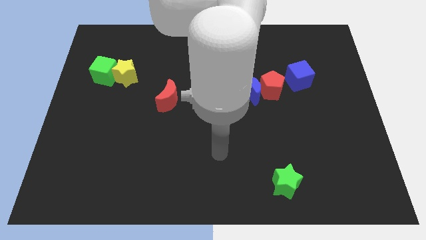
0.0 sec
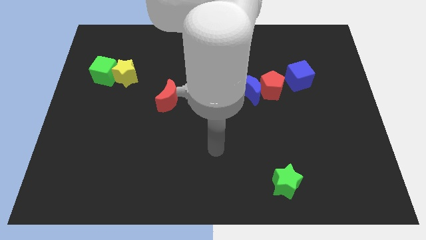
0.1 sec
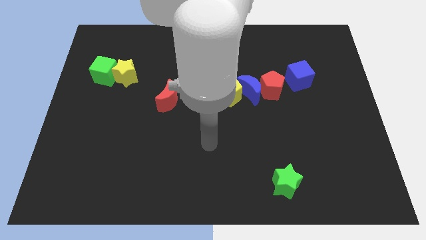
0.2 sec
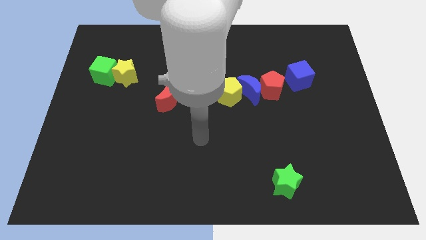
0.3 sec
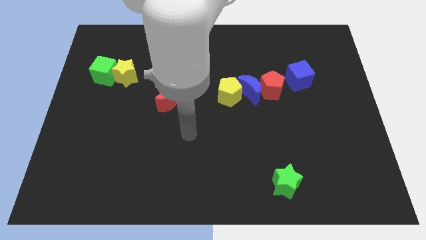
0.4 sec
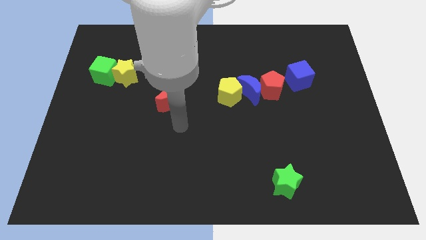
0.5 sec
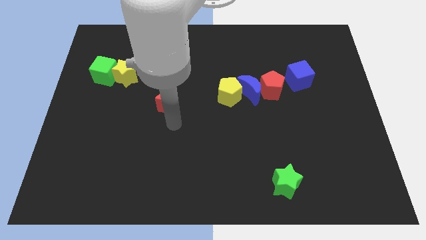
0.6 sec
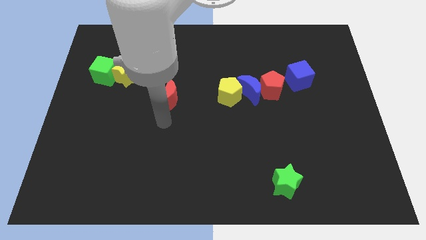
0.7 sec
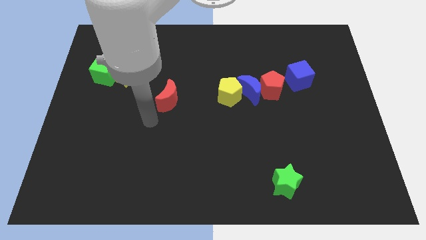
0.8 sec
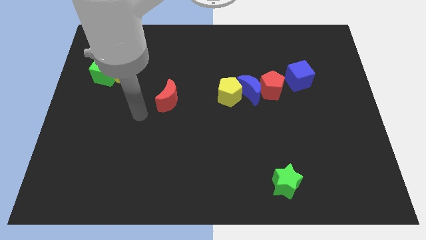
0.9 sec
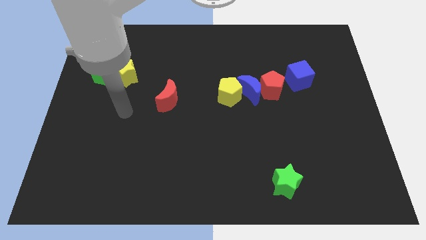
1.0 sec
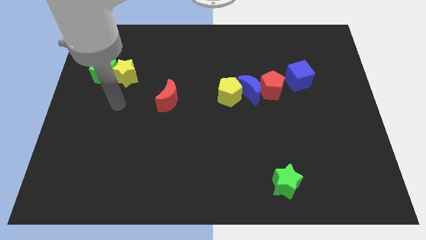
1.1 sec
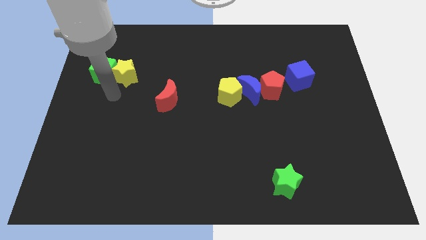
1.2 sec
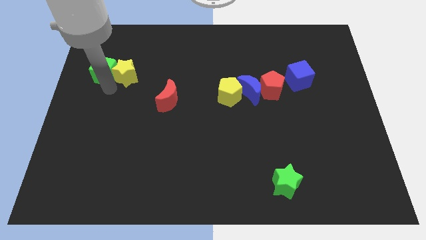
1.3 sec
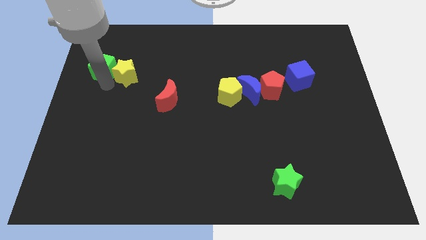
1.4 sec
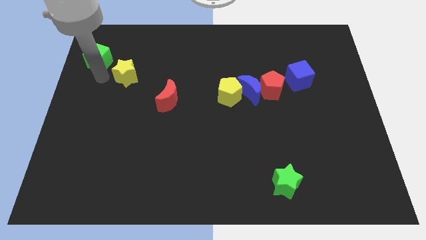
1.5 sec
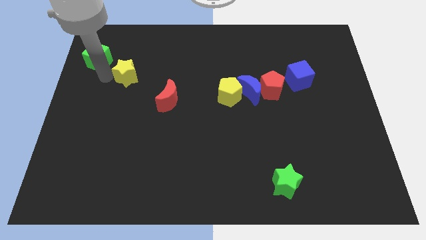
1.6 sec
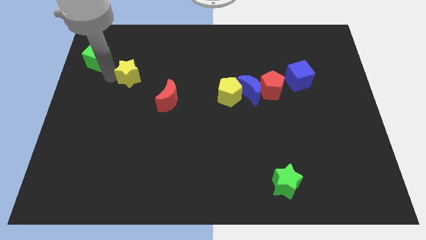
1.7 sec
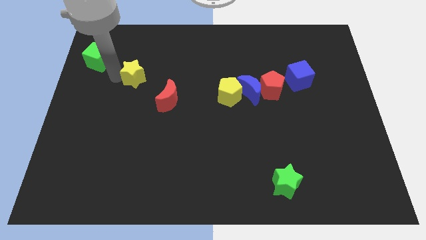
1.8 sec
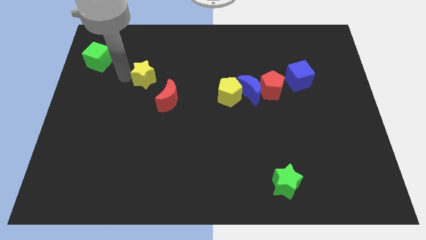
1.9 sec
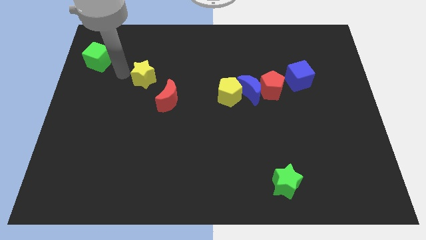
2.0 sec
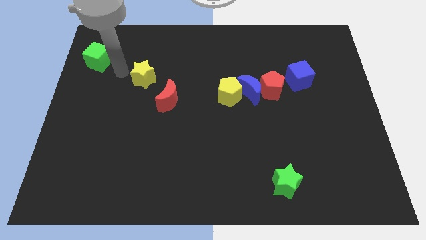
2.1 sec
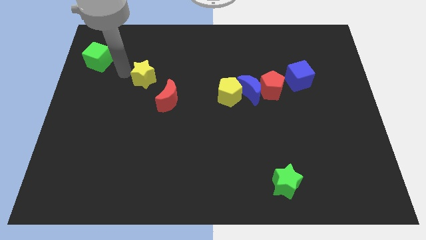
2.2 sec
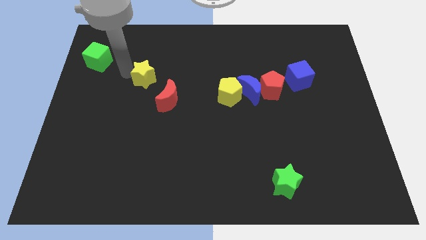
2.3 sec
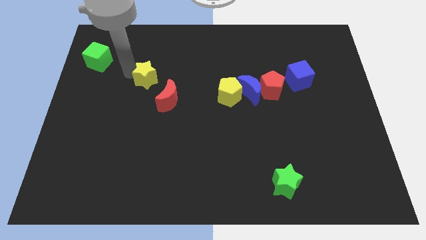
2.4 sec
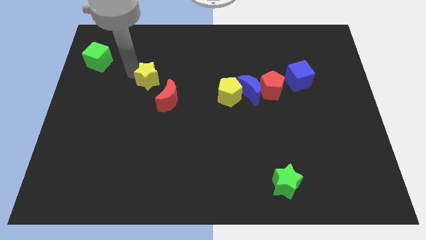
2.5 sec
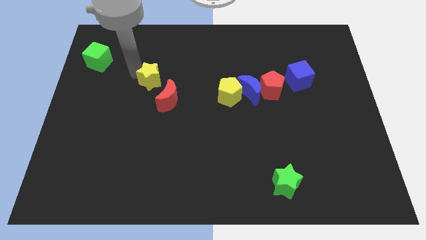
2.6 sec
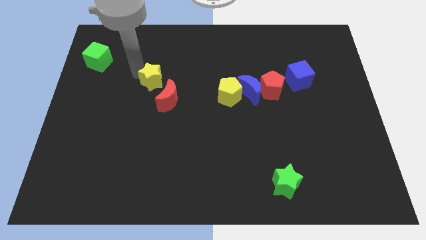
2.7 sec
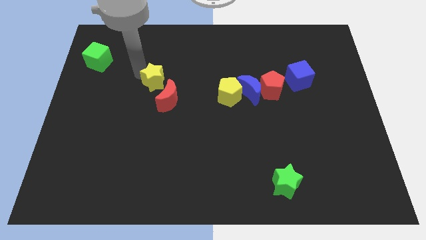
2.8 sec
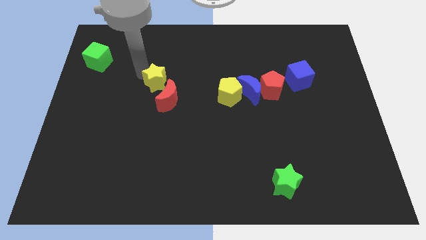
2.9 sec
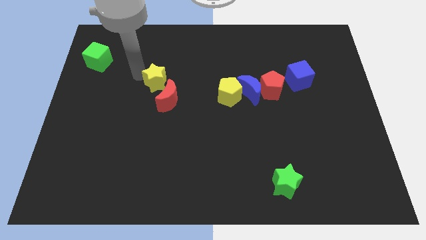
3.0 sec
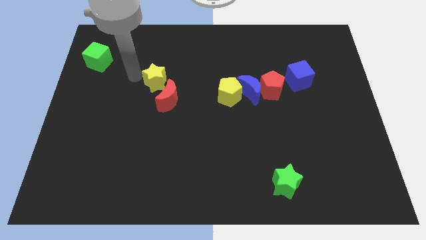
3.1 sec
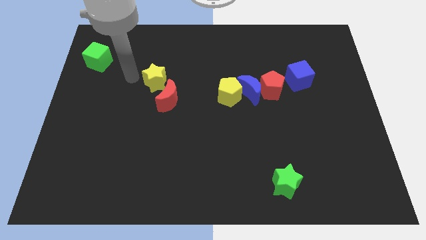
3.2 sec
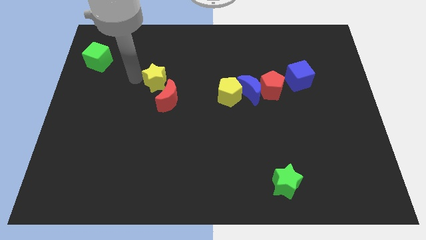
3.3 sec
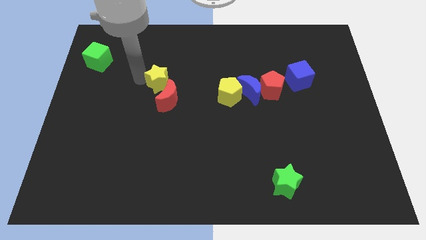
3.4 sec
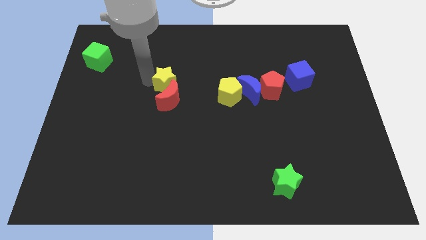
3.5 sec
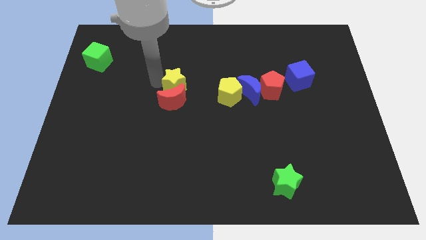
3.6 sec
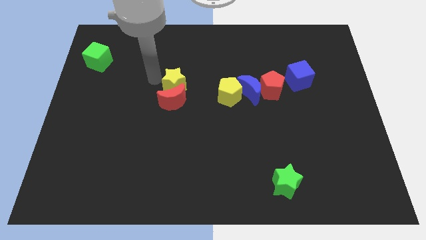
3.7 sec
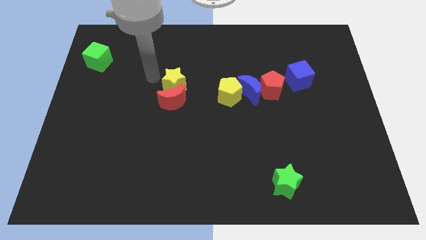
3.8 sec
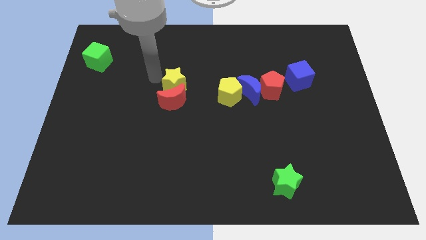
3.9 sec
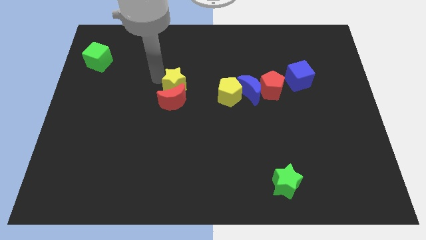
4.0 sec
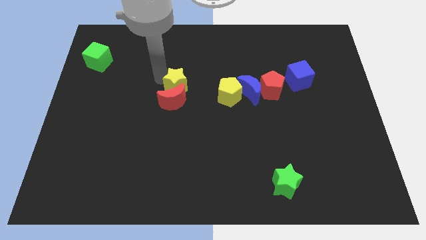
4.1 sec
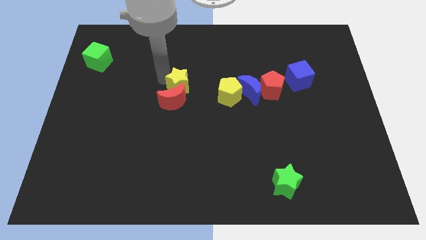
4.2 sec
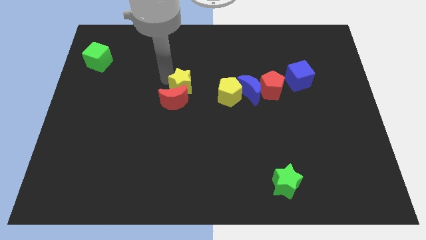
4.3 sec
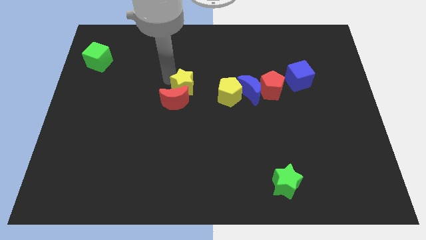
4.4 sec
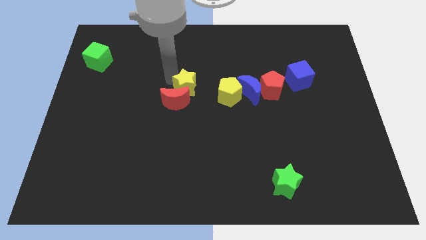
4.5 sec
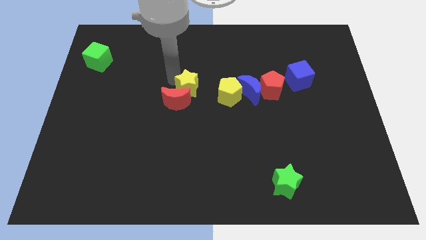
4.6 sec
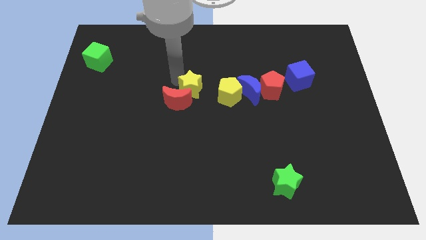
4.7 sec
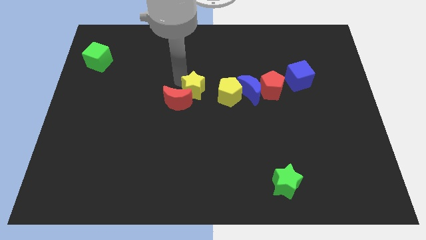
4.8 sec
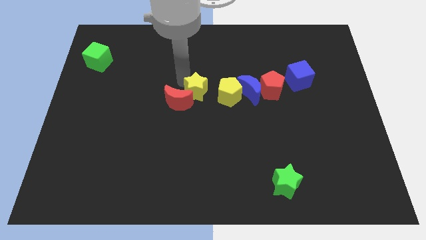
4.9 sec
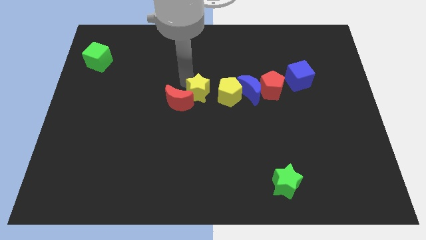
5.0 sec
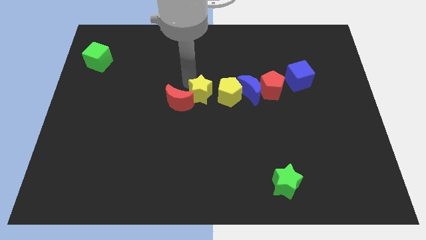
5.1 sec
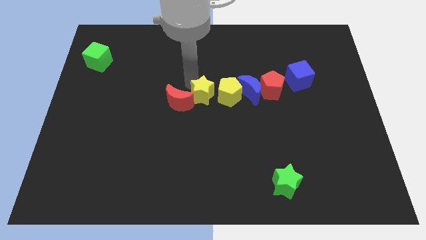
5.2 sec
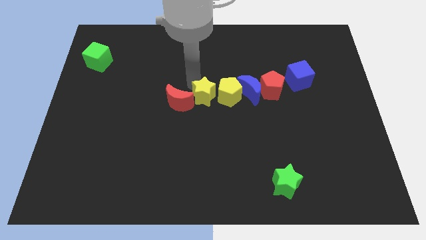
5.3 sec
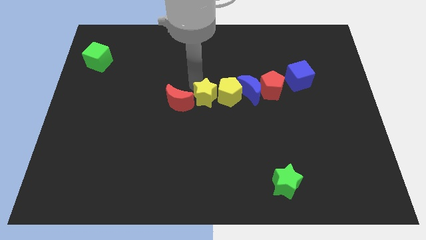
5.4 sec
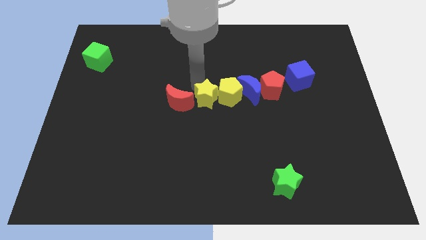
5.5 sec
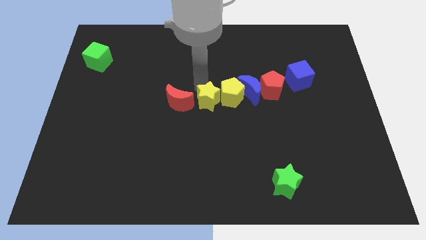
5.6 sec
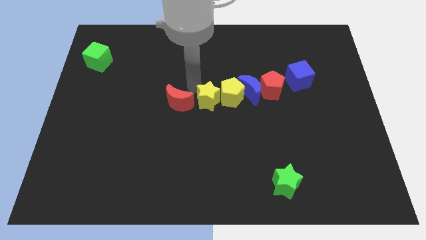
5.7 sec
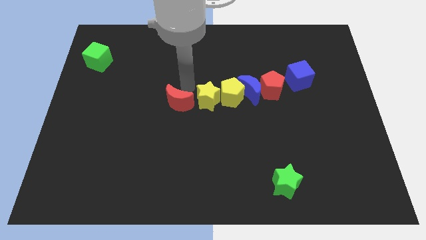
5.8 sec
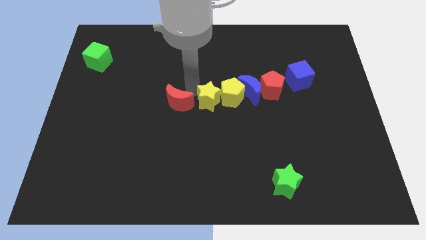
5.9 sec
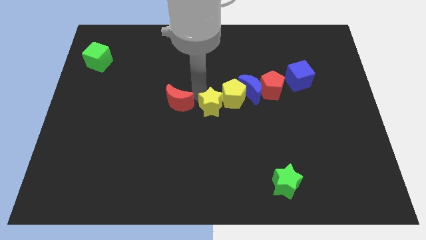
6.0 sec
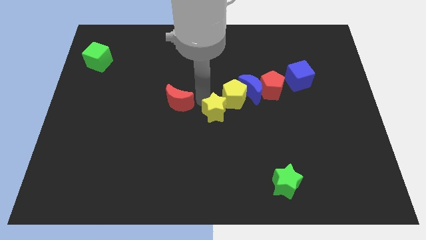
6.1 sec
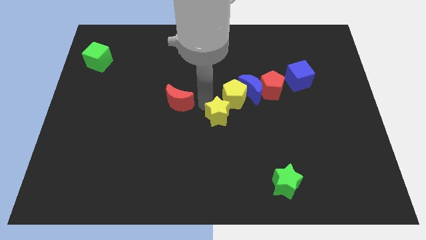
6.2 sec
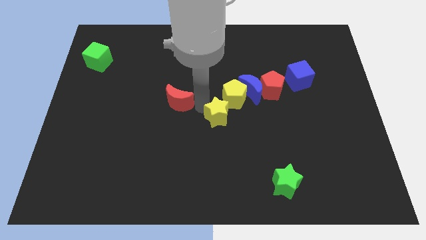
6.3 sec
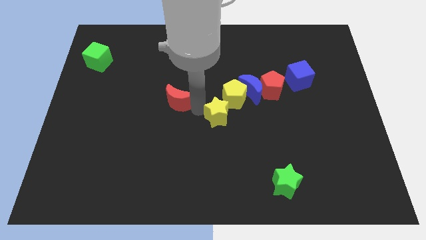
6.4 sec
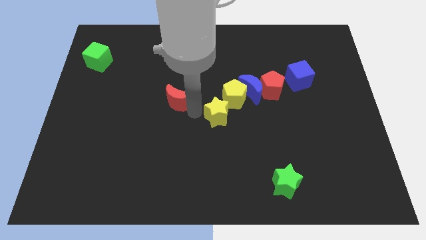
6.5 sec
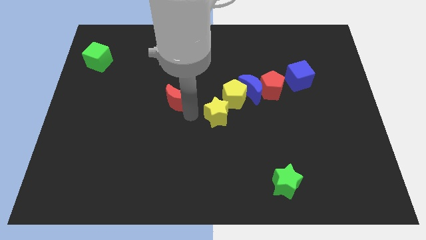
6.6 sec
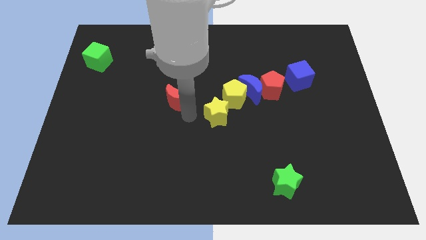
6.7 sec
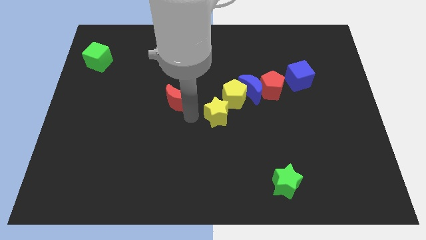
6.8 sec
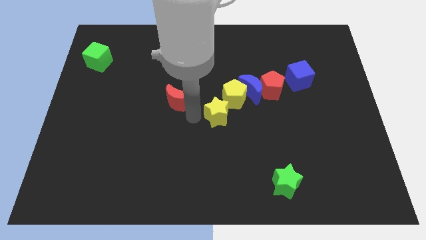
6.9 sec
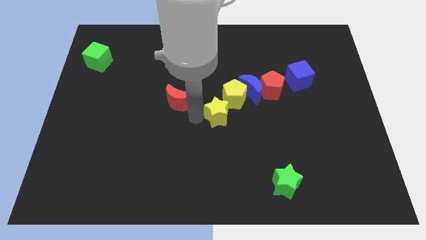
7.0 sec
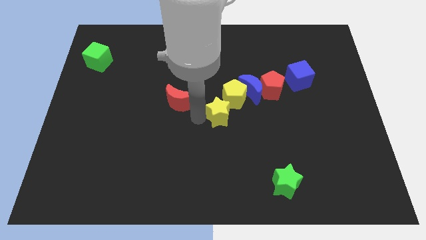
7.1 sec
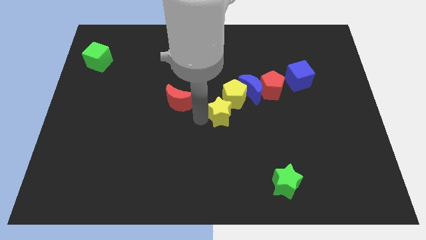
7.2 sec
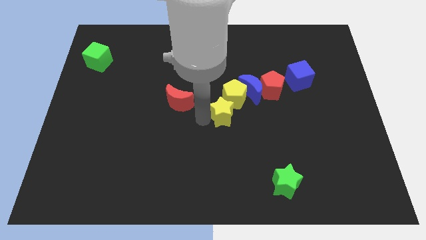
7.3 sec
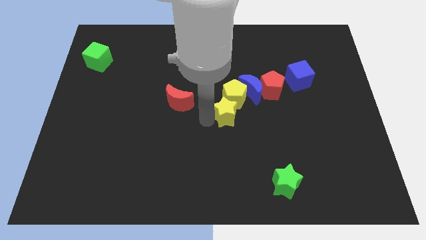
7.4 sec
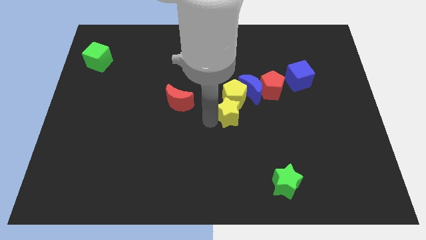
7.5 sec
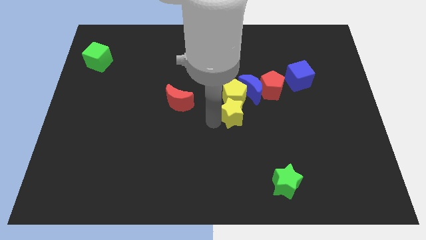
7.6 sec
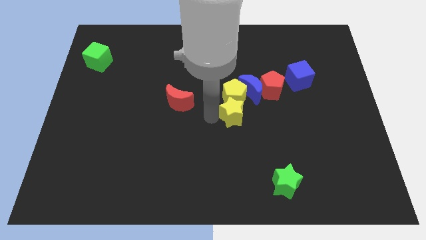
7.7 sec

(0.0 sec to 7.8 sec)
move the yellow star to the bottom side of the blue moon

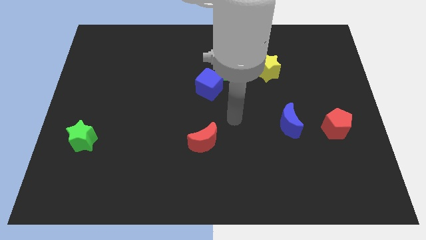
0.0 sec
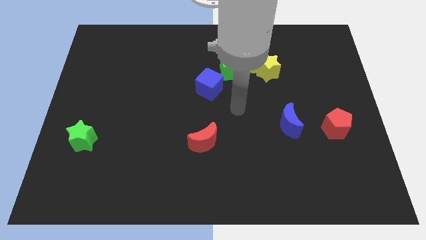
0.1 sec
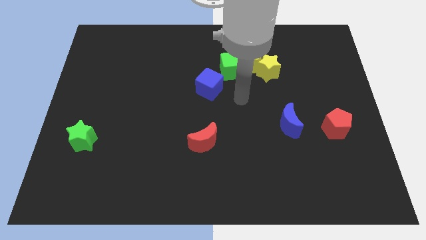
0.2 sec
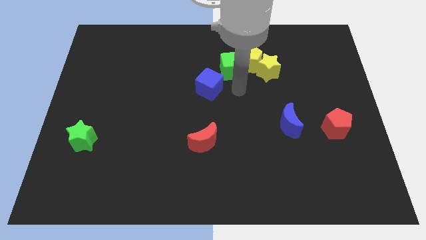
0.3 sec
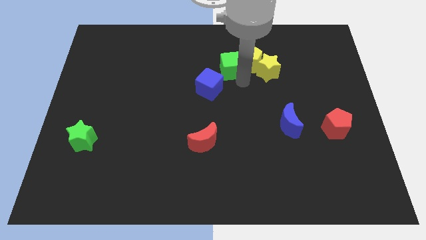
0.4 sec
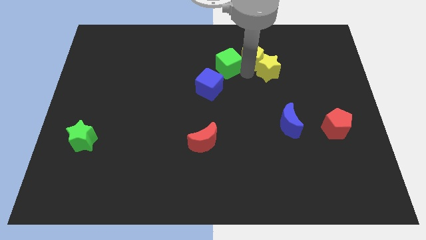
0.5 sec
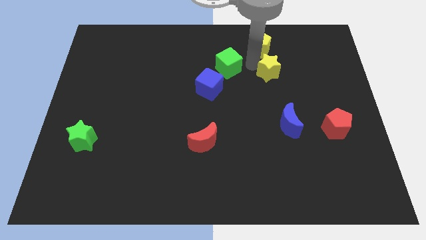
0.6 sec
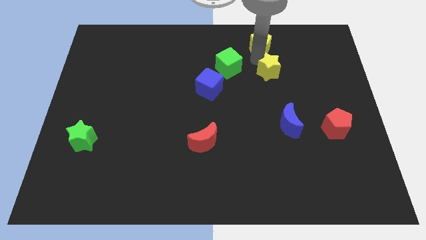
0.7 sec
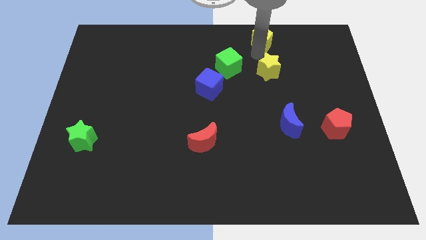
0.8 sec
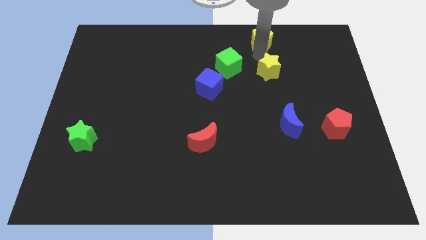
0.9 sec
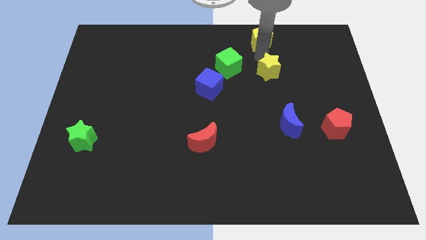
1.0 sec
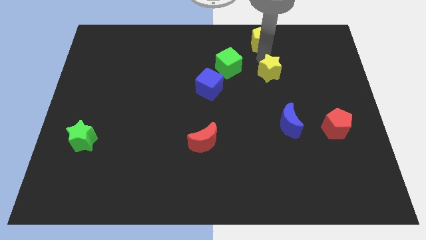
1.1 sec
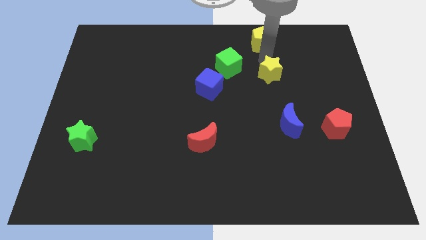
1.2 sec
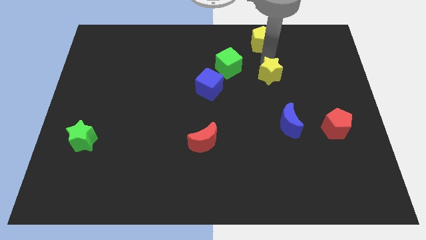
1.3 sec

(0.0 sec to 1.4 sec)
put the yellow star above the blue moon
